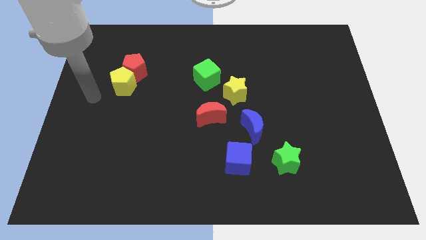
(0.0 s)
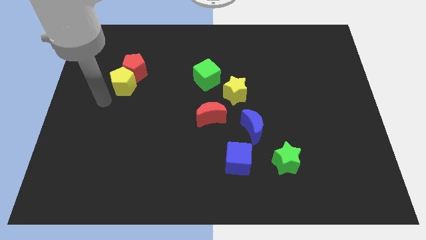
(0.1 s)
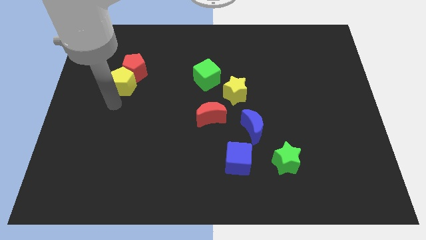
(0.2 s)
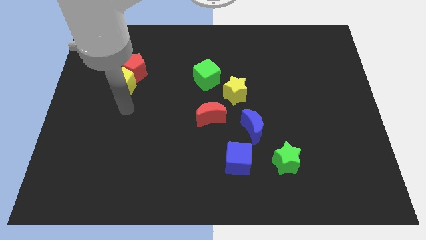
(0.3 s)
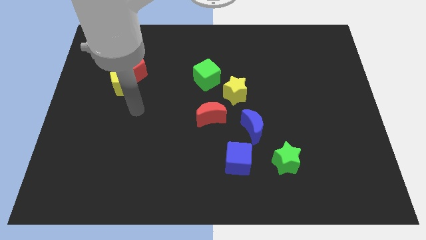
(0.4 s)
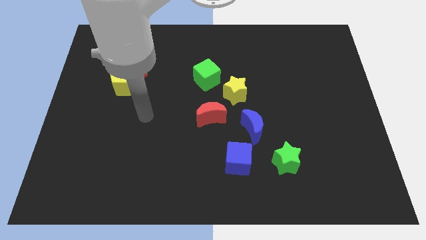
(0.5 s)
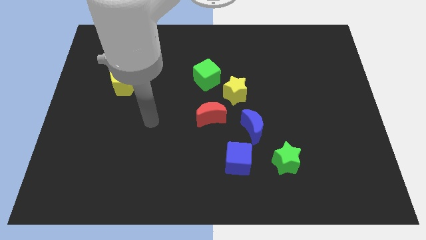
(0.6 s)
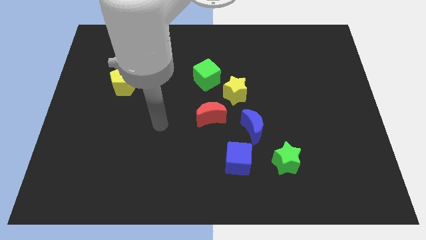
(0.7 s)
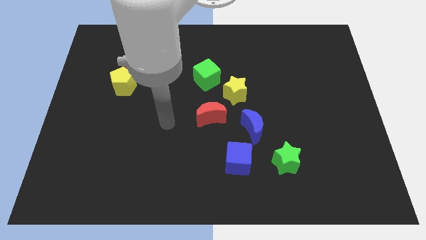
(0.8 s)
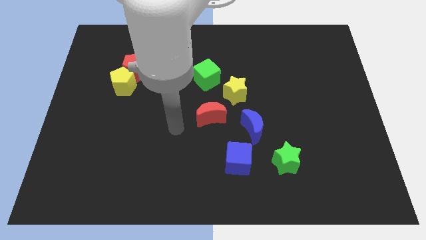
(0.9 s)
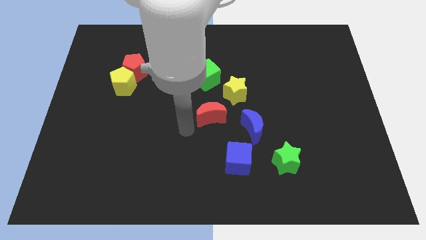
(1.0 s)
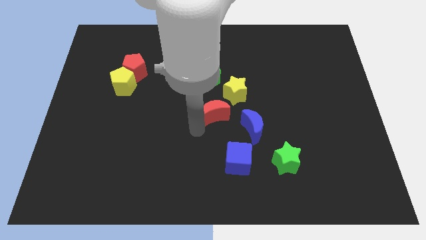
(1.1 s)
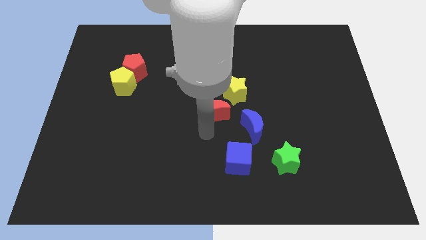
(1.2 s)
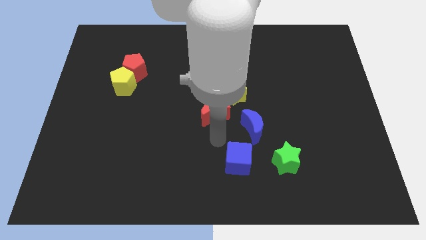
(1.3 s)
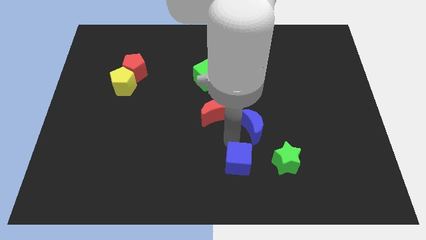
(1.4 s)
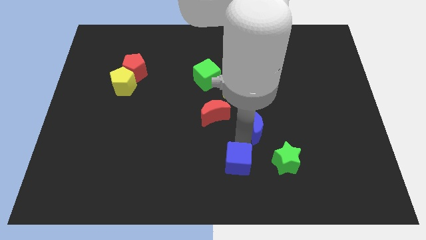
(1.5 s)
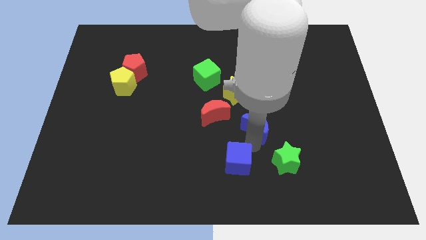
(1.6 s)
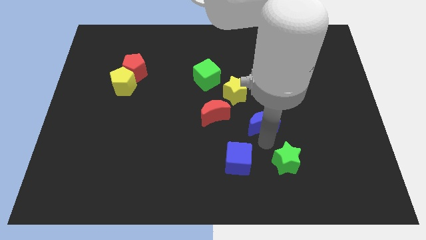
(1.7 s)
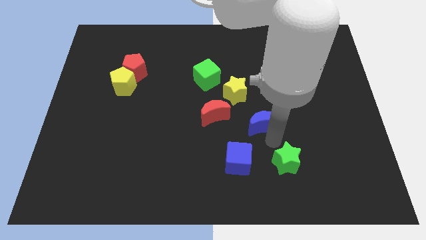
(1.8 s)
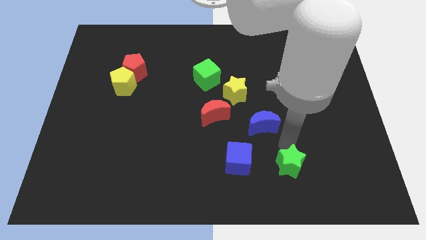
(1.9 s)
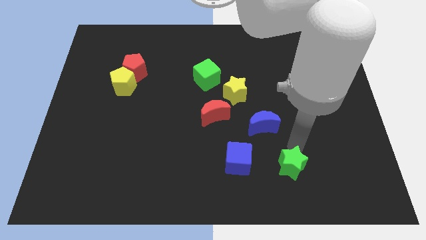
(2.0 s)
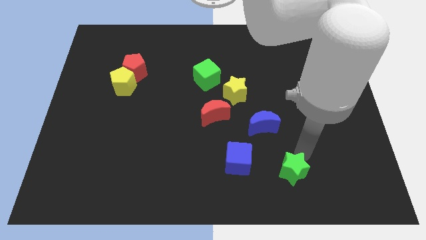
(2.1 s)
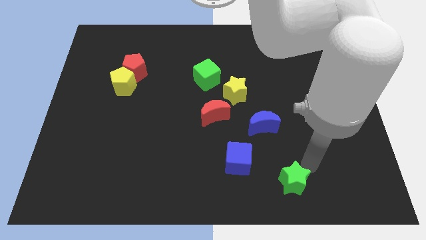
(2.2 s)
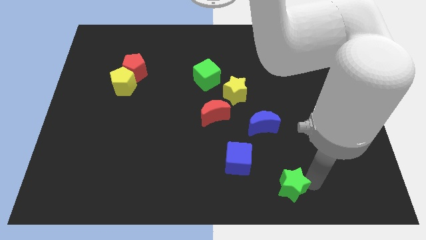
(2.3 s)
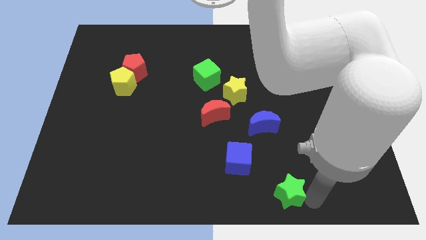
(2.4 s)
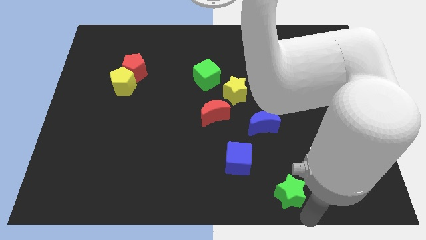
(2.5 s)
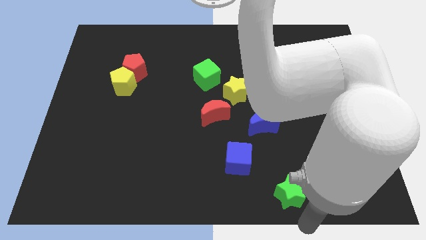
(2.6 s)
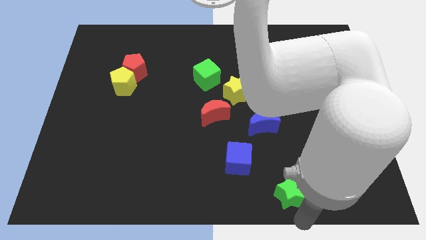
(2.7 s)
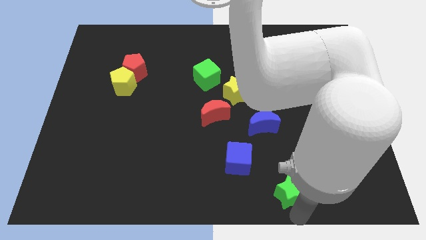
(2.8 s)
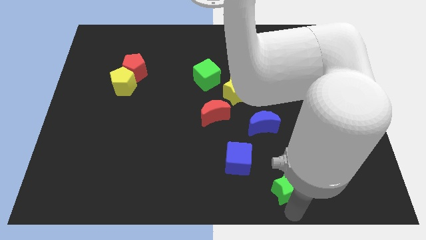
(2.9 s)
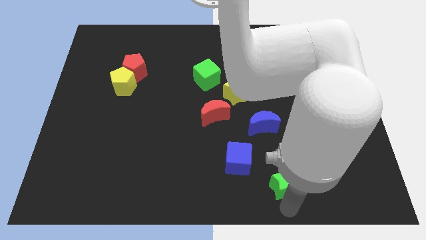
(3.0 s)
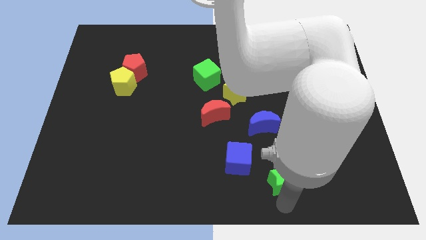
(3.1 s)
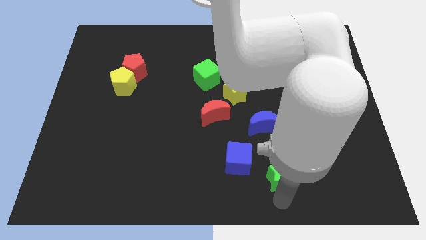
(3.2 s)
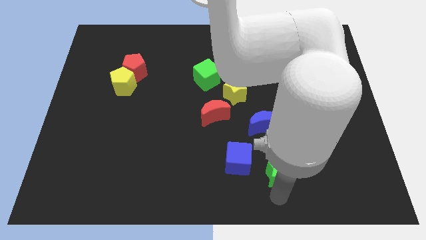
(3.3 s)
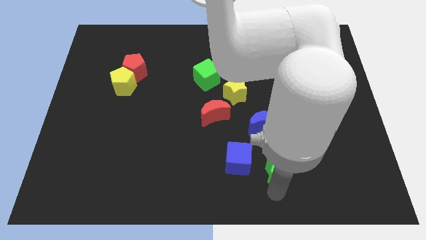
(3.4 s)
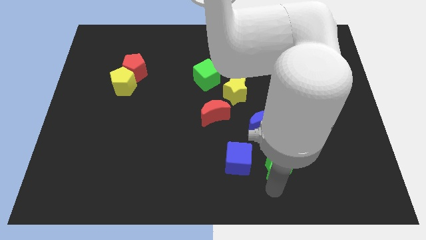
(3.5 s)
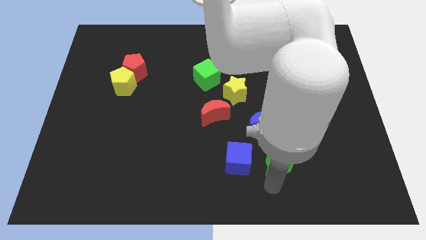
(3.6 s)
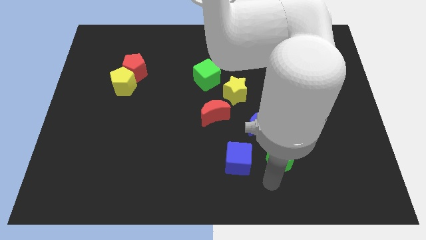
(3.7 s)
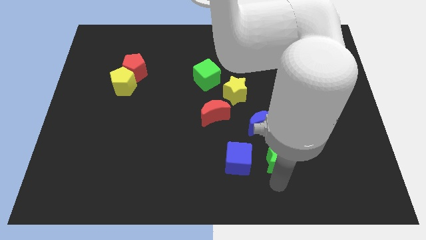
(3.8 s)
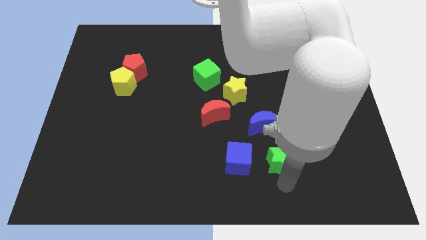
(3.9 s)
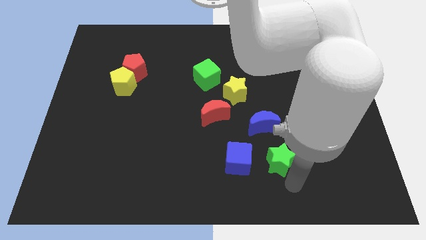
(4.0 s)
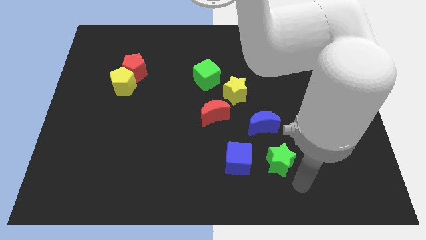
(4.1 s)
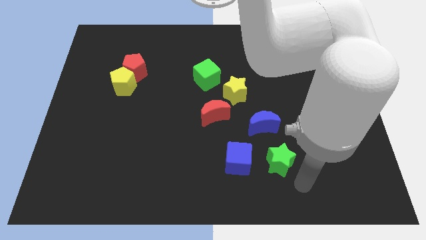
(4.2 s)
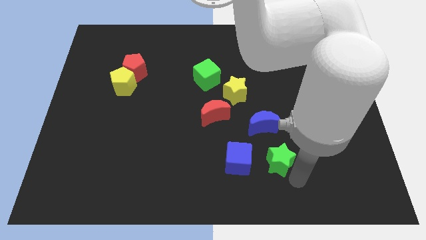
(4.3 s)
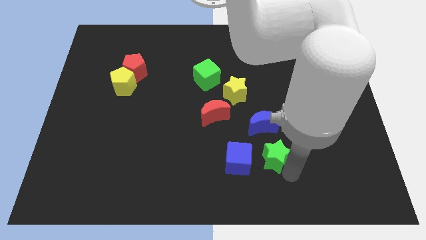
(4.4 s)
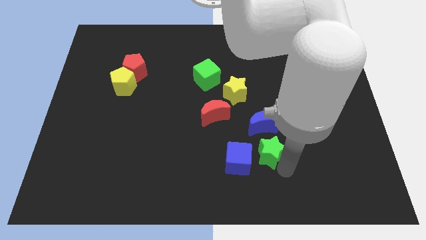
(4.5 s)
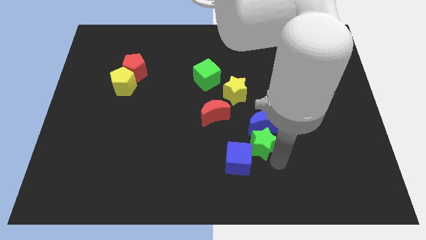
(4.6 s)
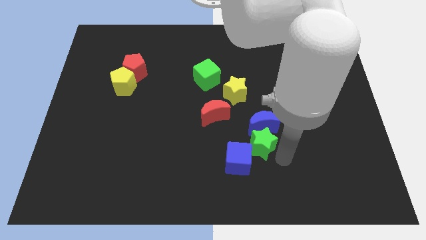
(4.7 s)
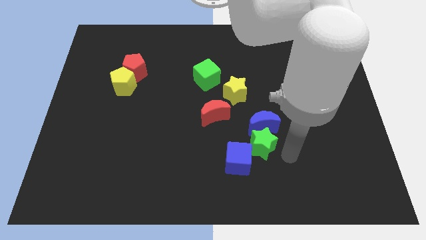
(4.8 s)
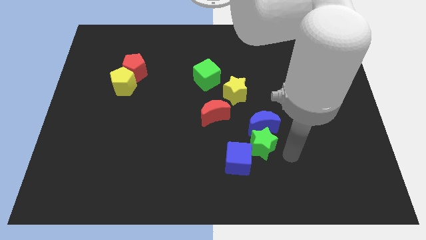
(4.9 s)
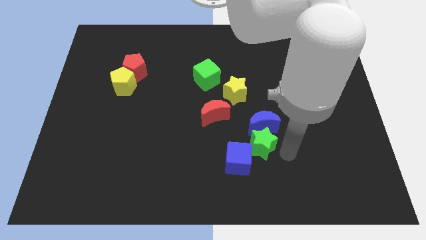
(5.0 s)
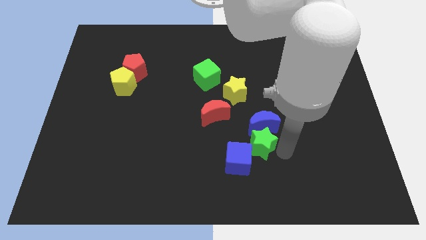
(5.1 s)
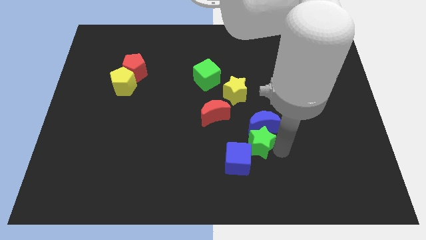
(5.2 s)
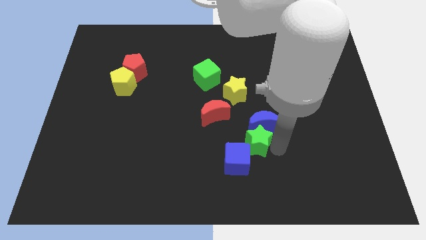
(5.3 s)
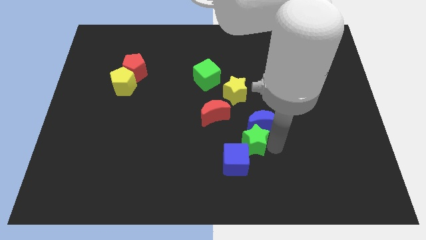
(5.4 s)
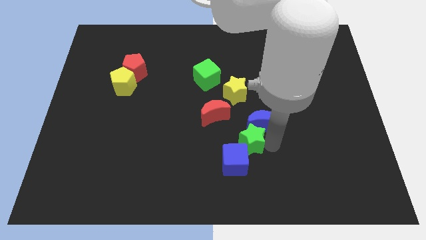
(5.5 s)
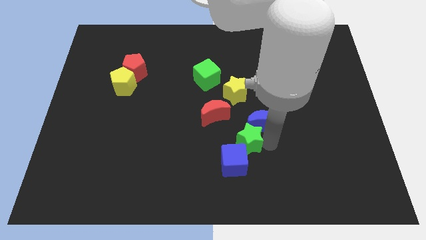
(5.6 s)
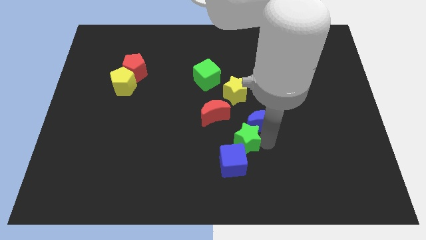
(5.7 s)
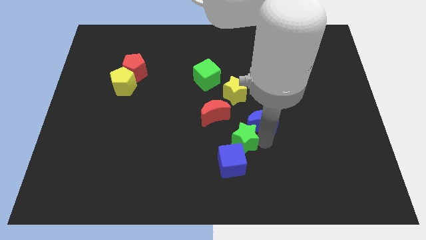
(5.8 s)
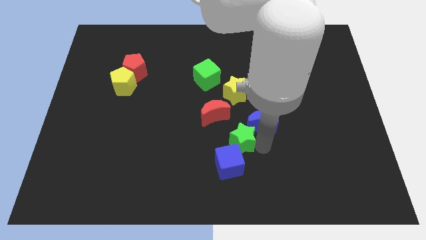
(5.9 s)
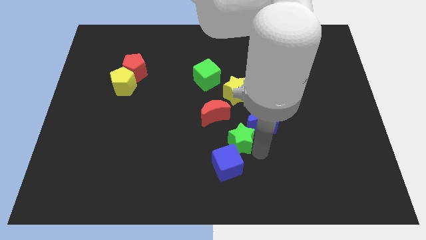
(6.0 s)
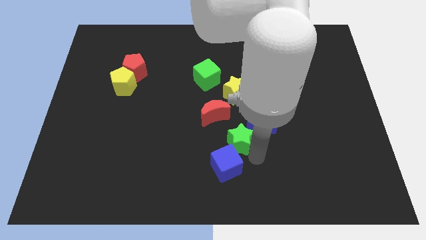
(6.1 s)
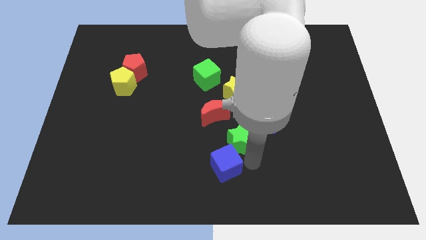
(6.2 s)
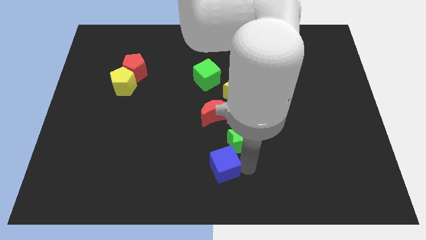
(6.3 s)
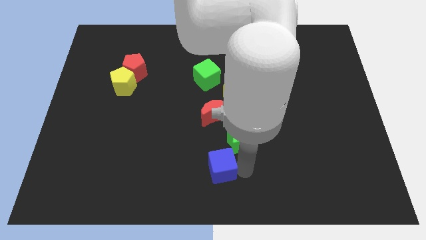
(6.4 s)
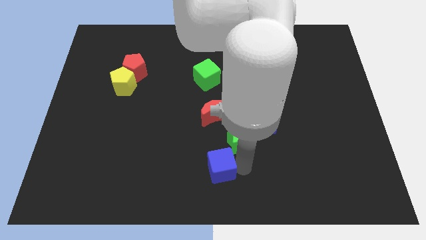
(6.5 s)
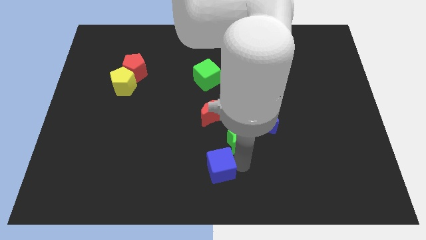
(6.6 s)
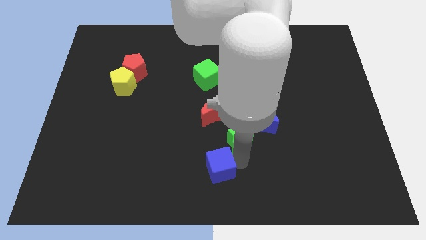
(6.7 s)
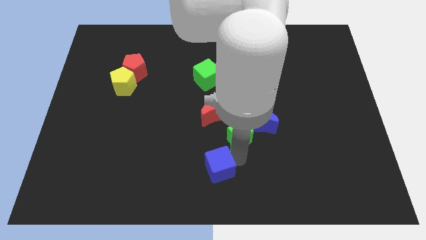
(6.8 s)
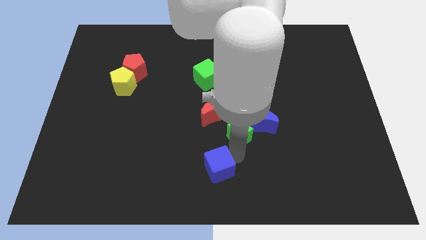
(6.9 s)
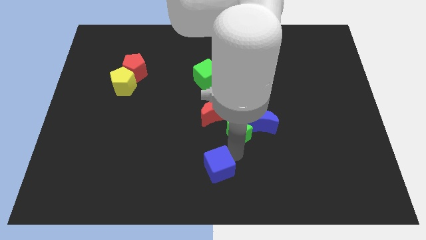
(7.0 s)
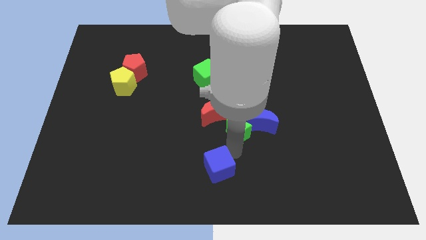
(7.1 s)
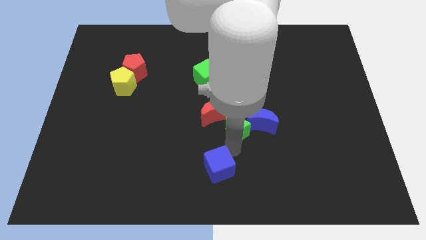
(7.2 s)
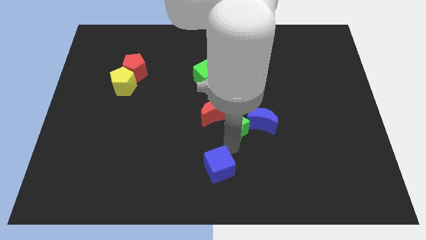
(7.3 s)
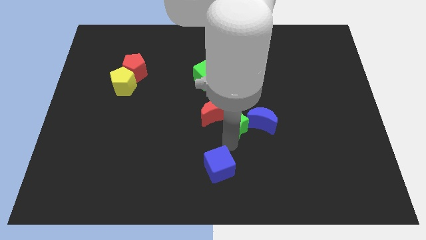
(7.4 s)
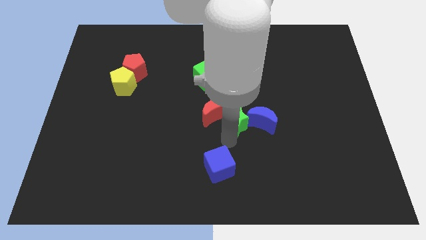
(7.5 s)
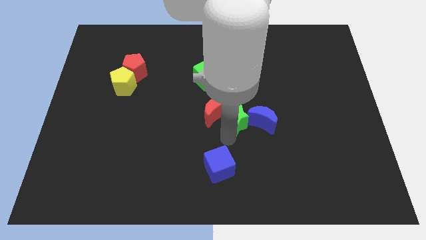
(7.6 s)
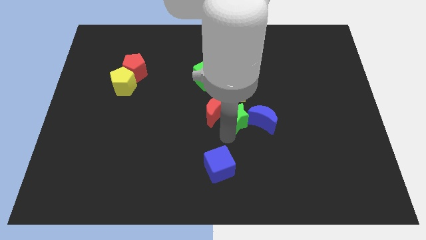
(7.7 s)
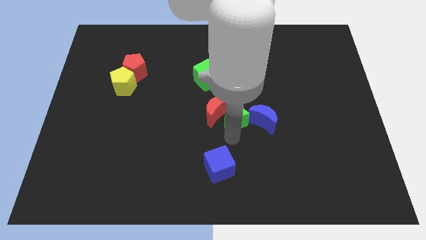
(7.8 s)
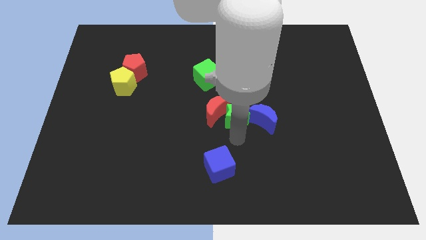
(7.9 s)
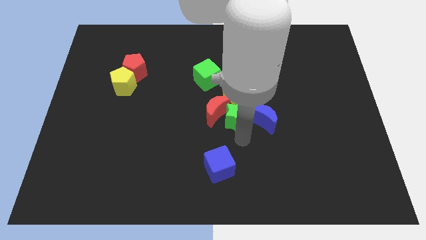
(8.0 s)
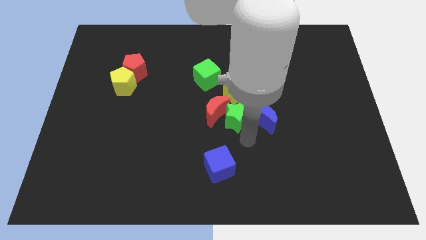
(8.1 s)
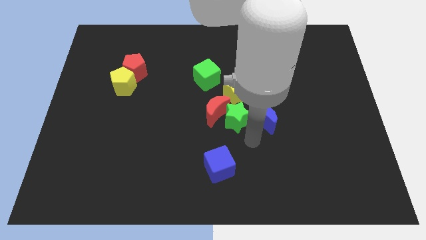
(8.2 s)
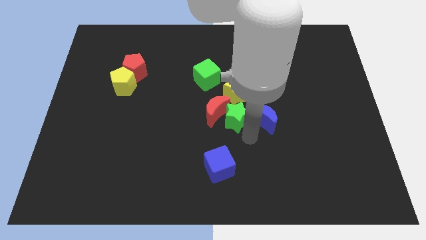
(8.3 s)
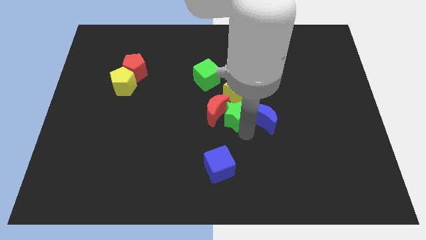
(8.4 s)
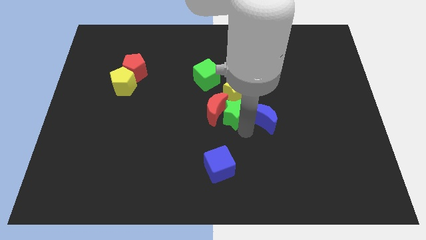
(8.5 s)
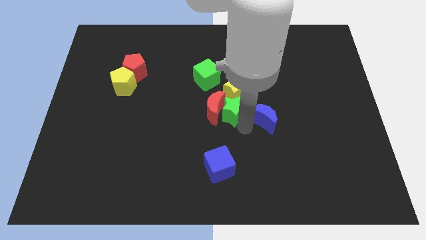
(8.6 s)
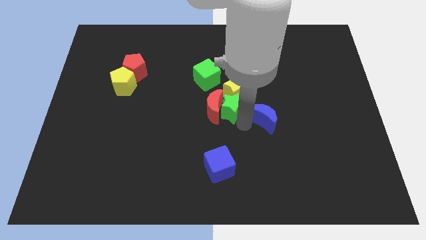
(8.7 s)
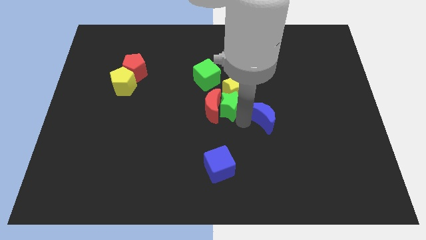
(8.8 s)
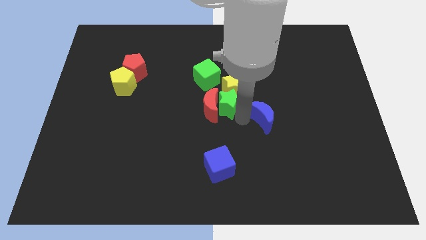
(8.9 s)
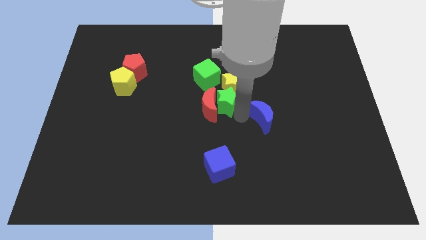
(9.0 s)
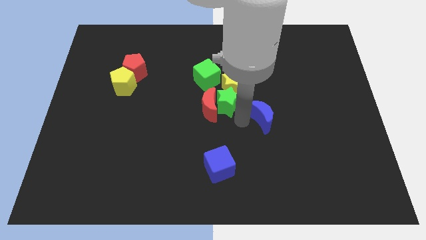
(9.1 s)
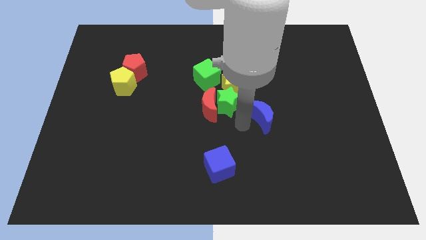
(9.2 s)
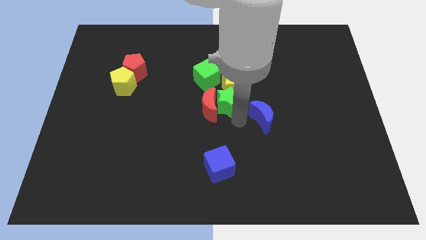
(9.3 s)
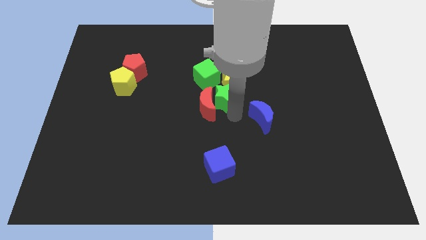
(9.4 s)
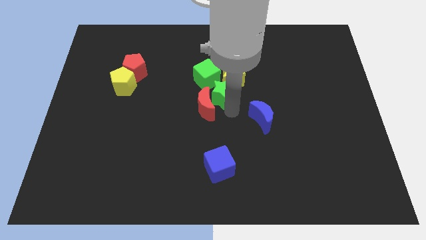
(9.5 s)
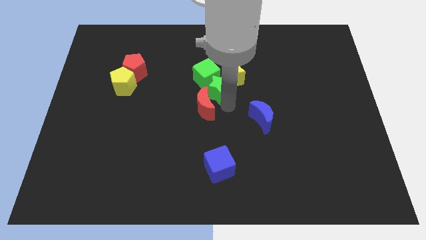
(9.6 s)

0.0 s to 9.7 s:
push the green star towards the green cube
